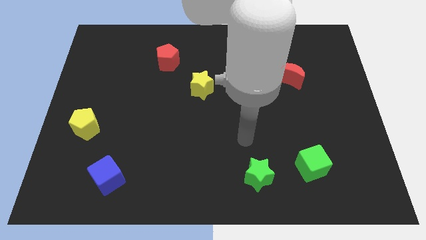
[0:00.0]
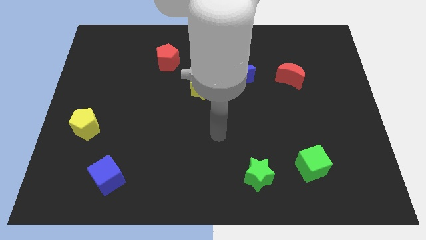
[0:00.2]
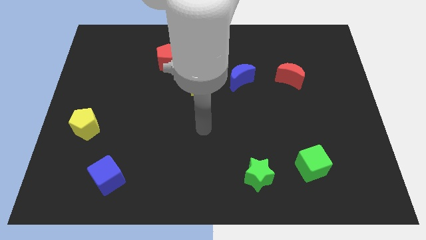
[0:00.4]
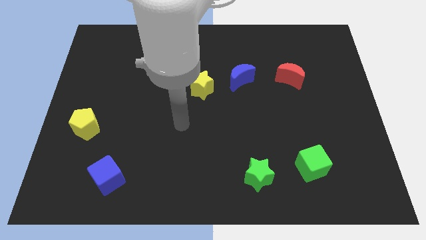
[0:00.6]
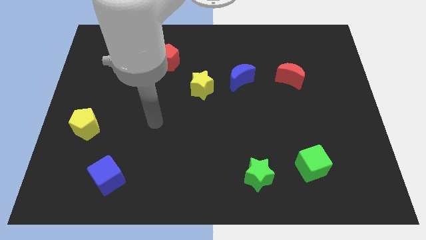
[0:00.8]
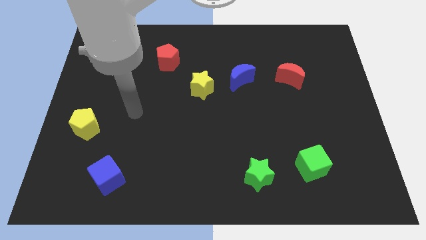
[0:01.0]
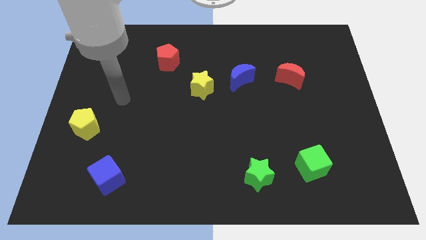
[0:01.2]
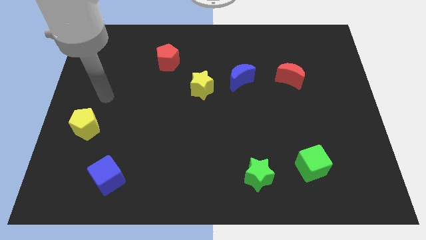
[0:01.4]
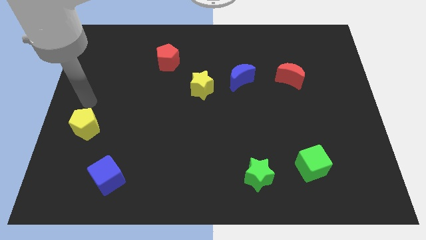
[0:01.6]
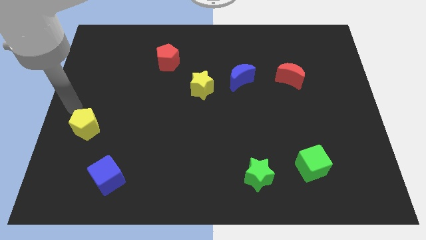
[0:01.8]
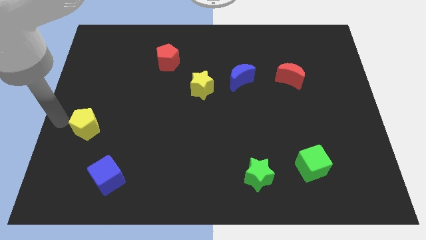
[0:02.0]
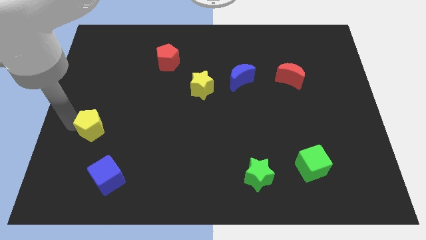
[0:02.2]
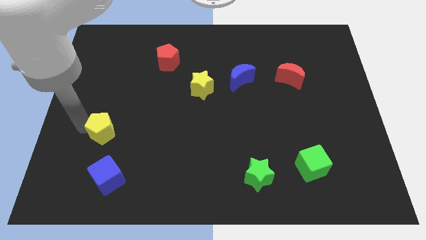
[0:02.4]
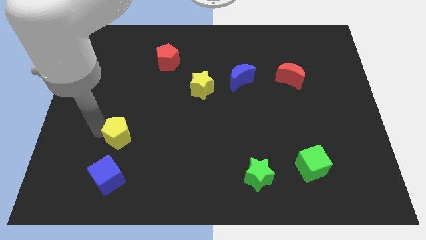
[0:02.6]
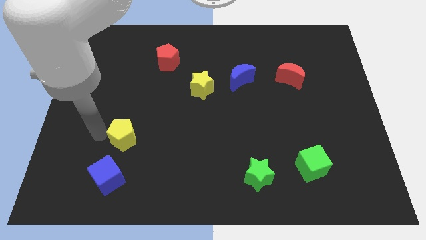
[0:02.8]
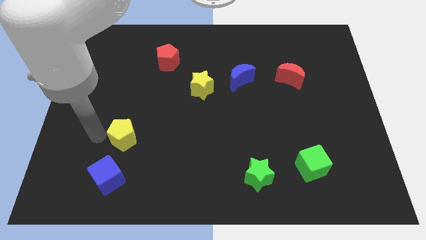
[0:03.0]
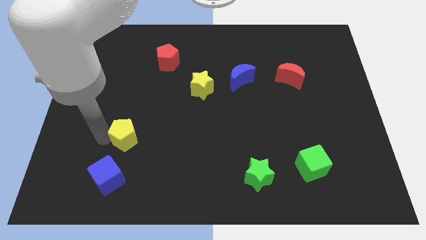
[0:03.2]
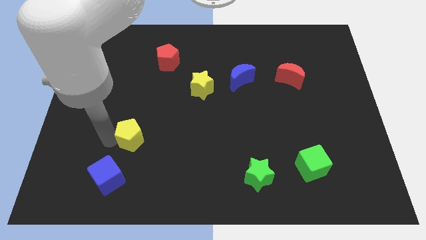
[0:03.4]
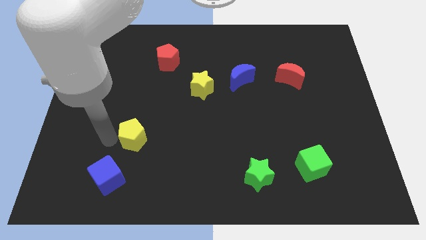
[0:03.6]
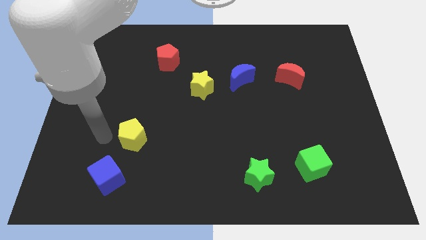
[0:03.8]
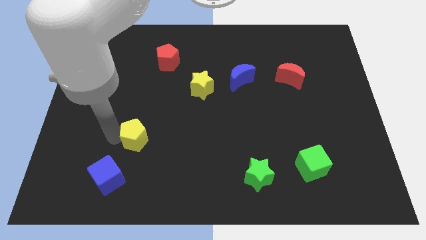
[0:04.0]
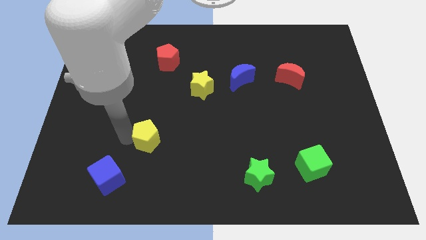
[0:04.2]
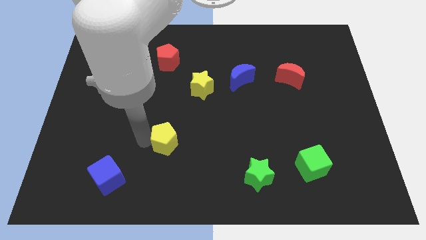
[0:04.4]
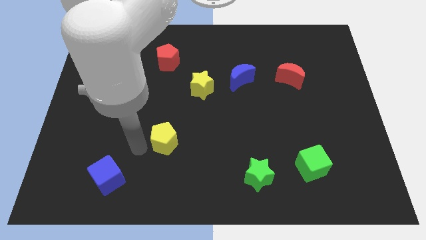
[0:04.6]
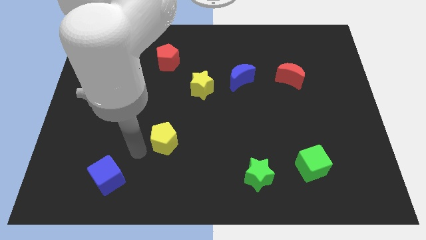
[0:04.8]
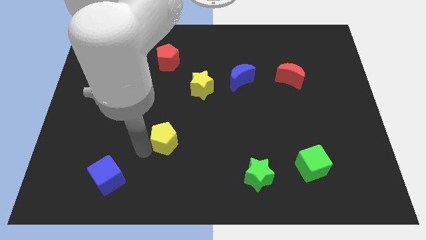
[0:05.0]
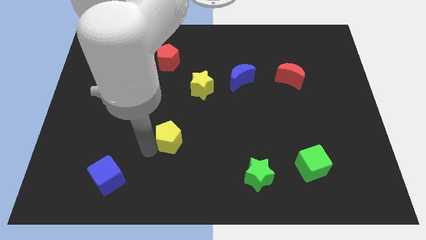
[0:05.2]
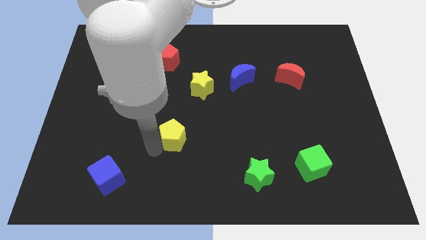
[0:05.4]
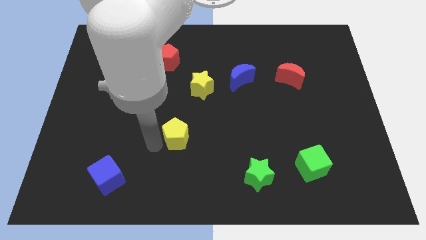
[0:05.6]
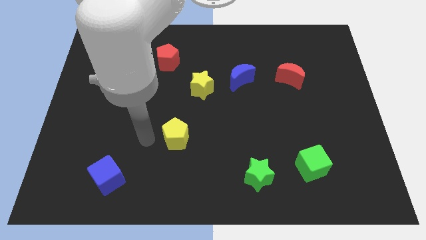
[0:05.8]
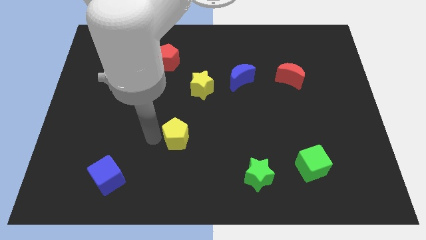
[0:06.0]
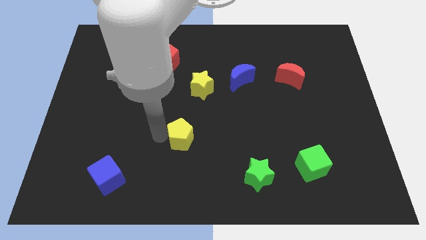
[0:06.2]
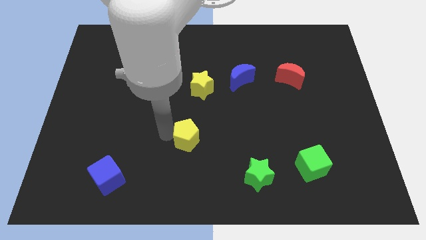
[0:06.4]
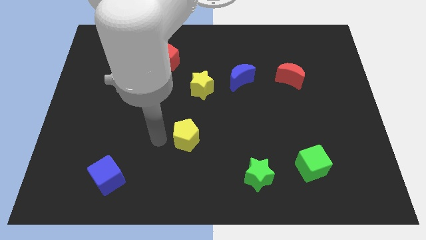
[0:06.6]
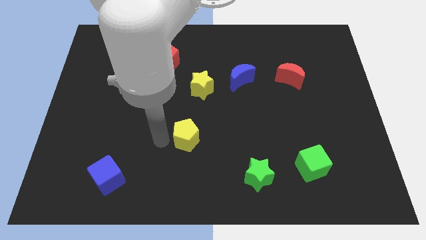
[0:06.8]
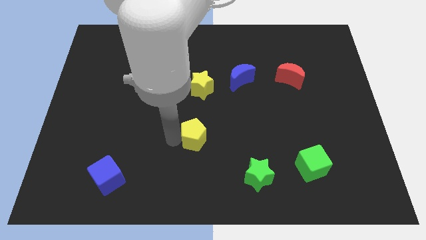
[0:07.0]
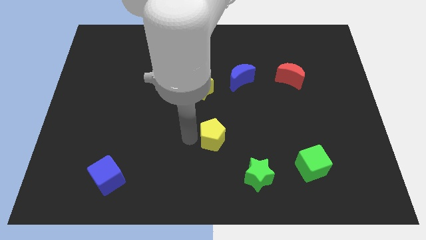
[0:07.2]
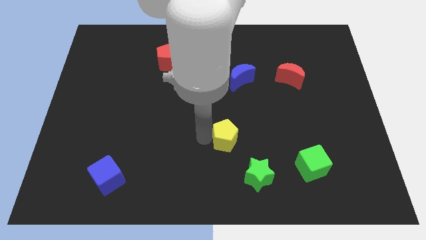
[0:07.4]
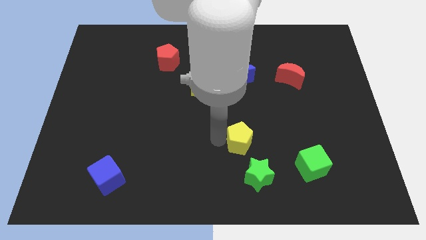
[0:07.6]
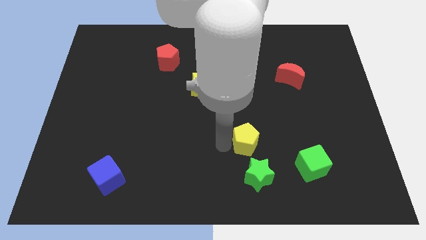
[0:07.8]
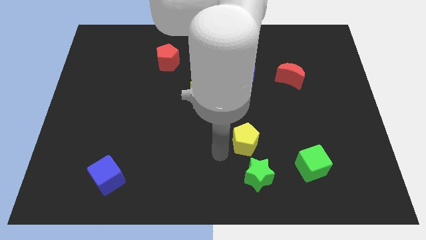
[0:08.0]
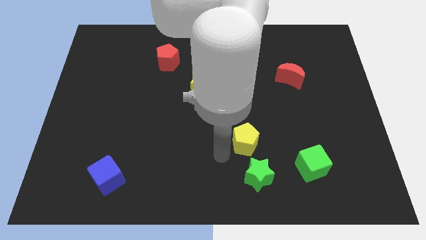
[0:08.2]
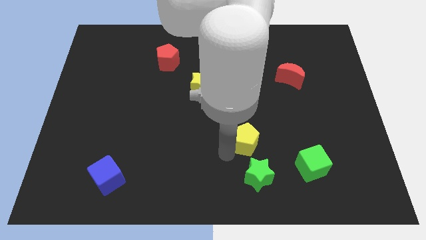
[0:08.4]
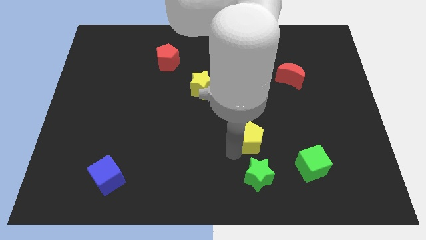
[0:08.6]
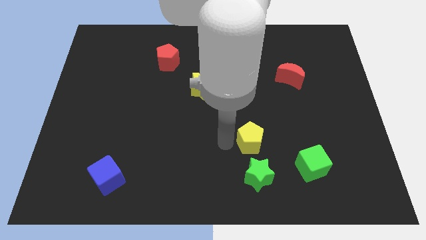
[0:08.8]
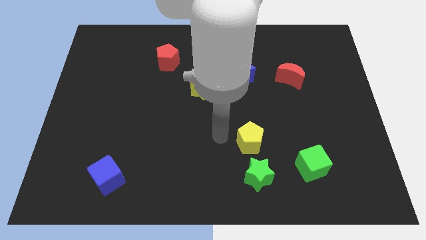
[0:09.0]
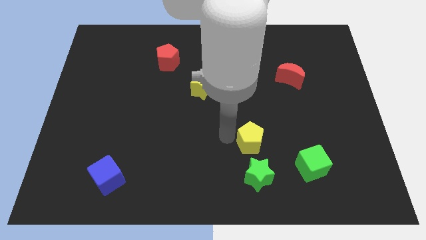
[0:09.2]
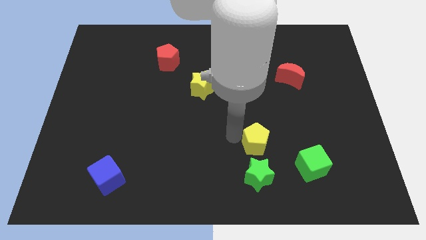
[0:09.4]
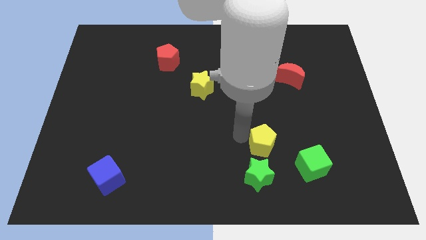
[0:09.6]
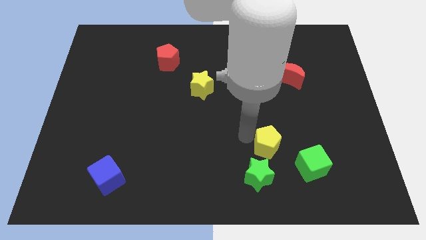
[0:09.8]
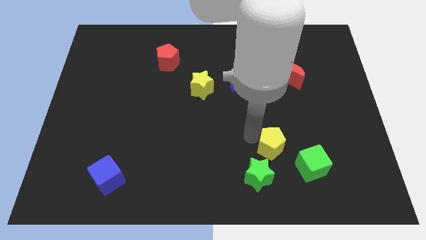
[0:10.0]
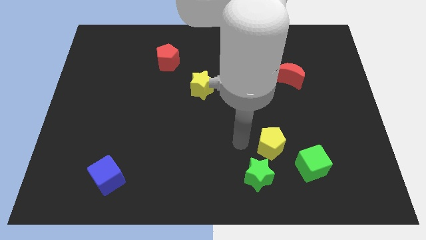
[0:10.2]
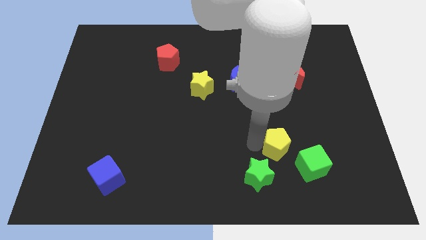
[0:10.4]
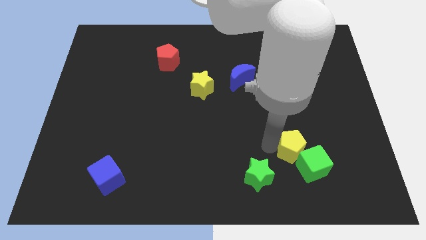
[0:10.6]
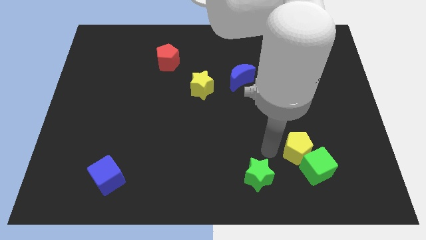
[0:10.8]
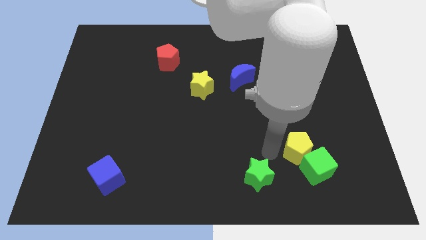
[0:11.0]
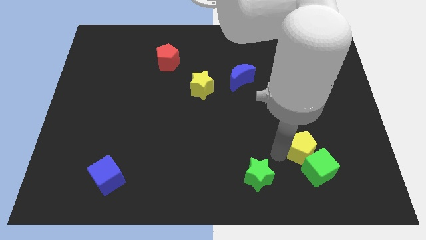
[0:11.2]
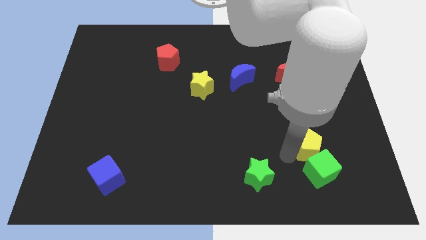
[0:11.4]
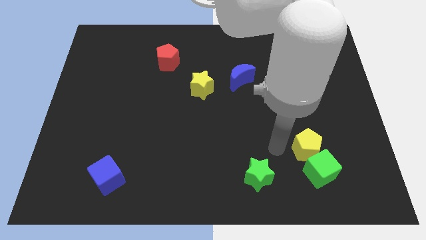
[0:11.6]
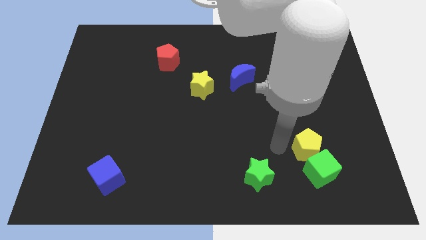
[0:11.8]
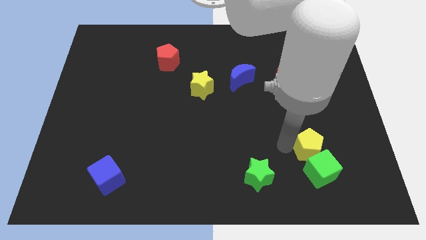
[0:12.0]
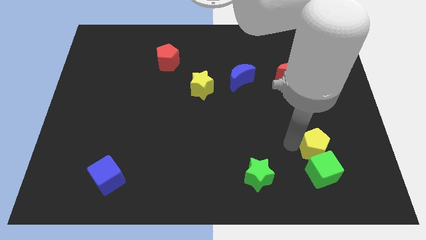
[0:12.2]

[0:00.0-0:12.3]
put the yellow pentagon diagonally up and to the right of the green cube

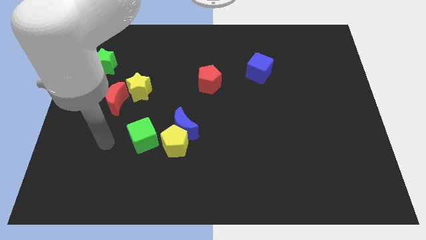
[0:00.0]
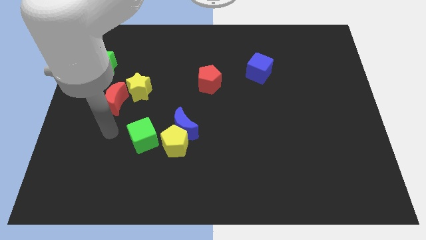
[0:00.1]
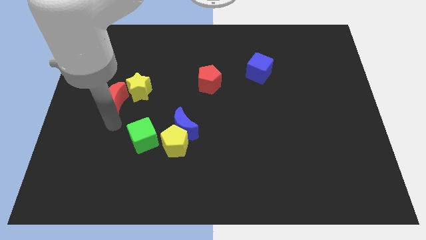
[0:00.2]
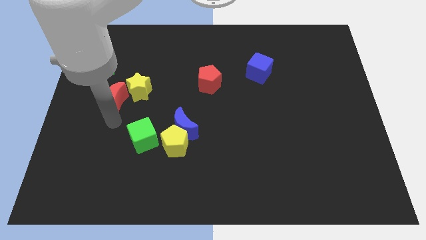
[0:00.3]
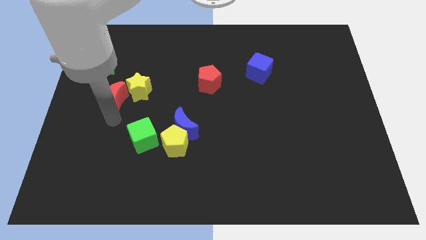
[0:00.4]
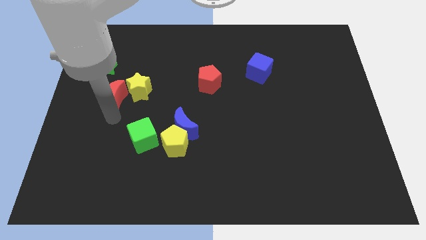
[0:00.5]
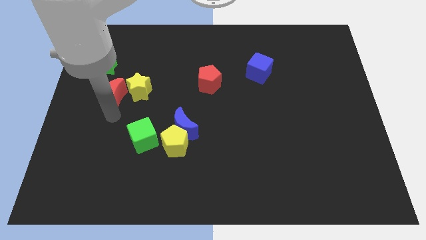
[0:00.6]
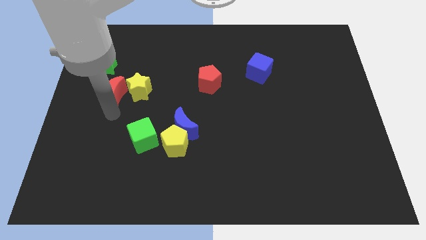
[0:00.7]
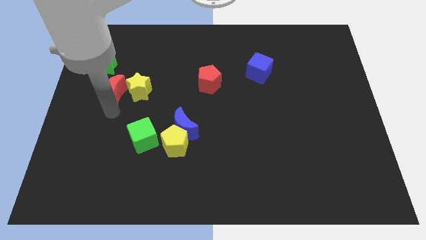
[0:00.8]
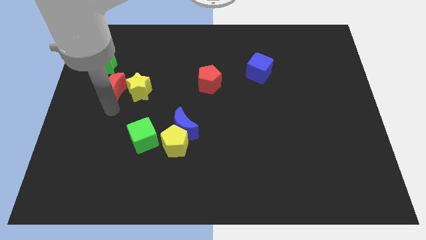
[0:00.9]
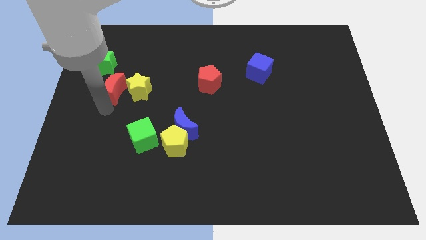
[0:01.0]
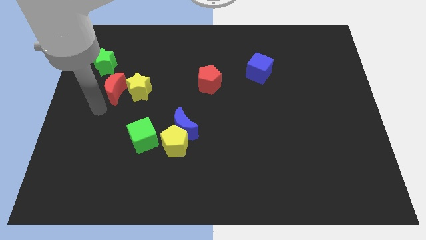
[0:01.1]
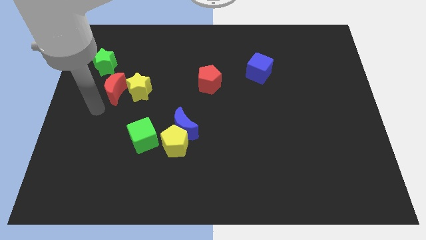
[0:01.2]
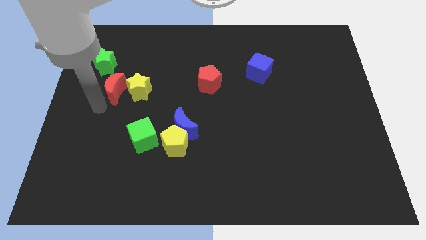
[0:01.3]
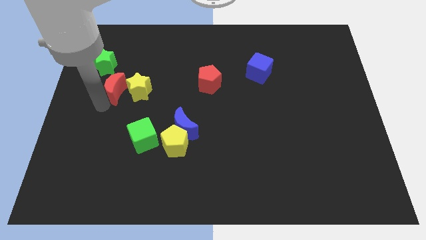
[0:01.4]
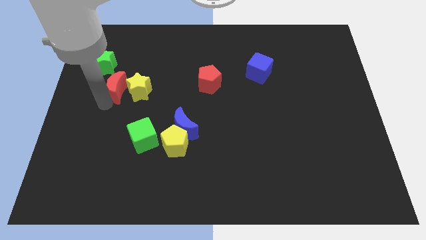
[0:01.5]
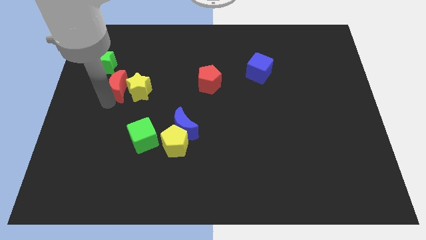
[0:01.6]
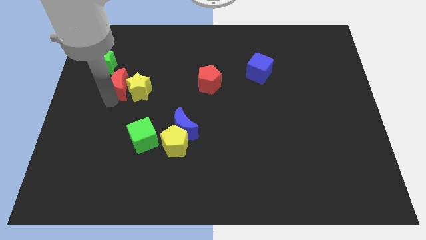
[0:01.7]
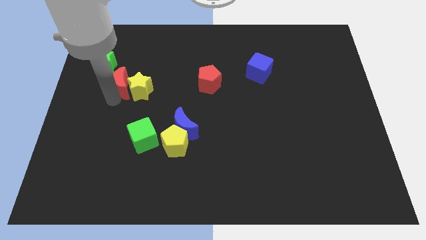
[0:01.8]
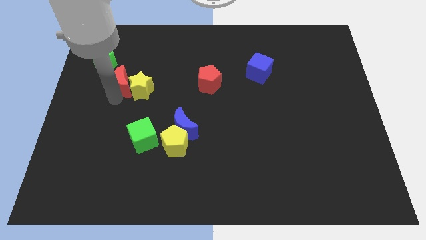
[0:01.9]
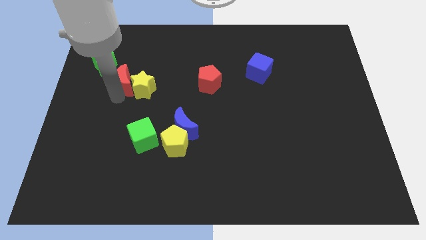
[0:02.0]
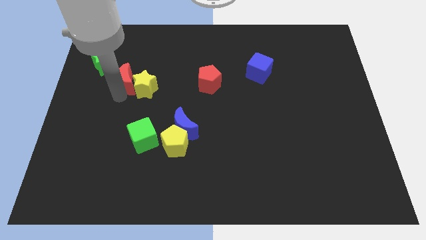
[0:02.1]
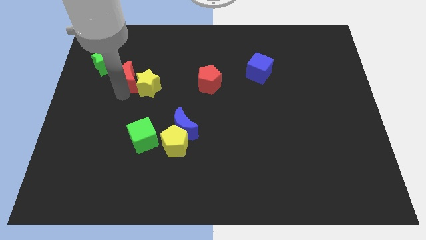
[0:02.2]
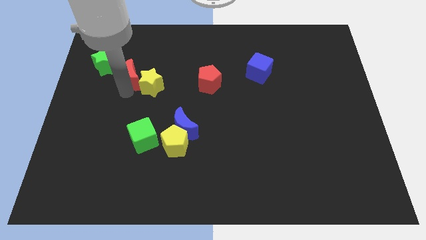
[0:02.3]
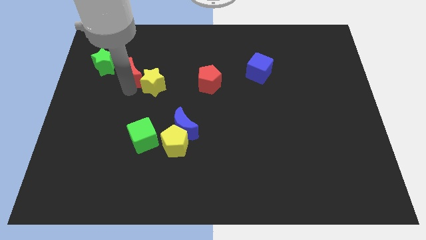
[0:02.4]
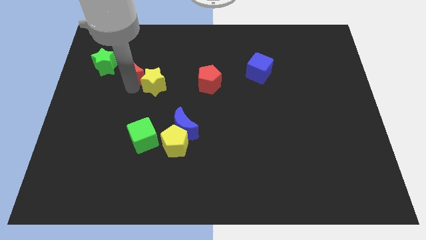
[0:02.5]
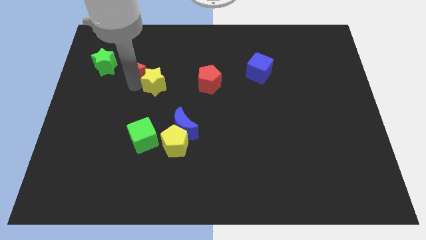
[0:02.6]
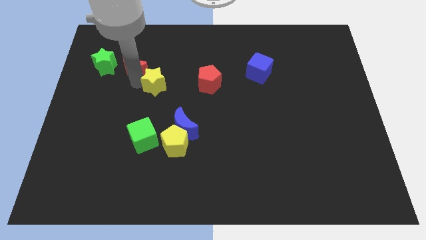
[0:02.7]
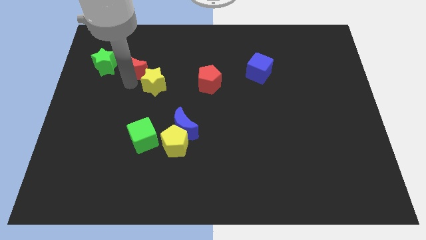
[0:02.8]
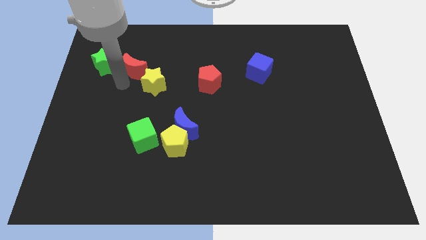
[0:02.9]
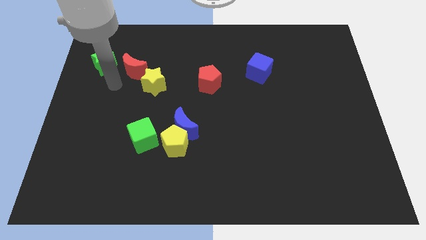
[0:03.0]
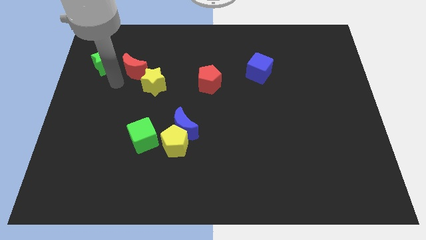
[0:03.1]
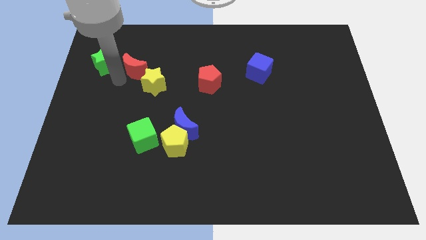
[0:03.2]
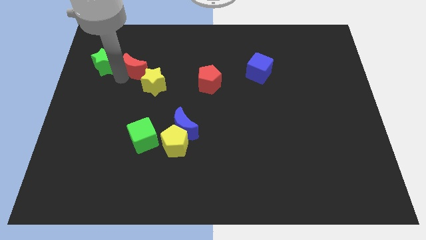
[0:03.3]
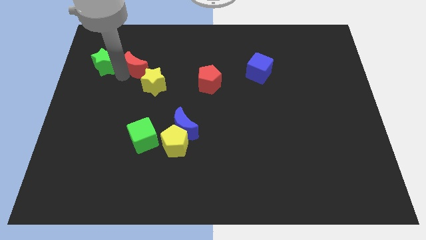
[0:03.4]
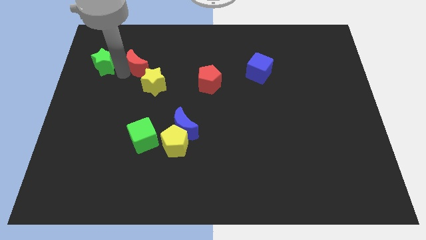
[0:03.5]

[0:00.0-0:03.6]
slide the red moon to the top side of the yellow star
